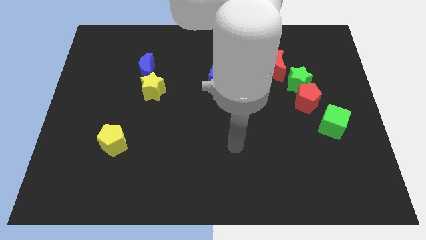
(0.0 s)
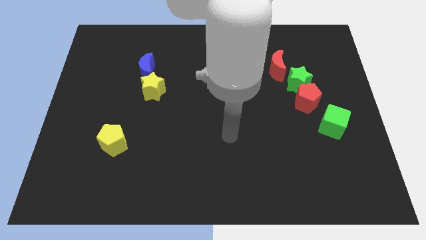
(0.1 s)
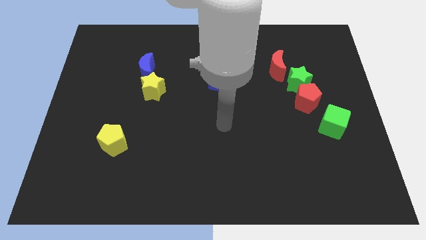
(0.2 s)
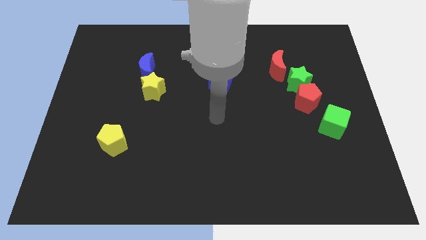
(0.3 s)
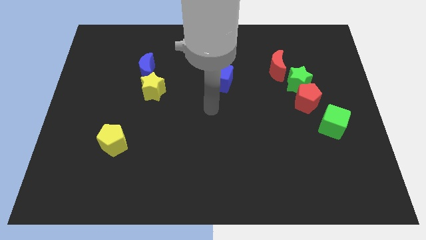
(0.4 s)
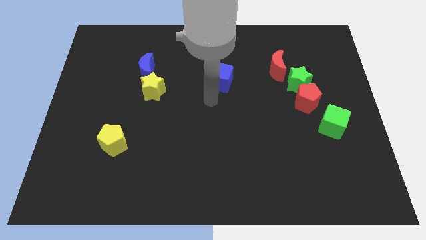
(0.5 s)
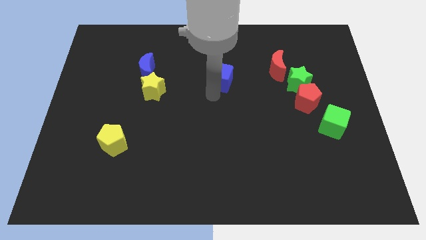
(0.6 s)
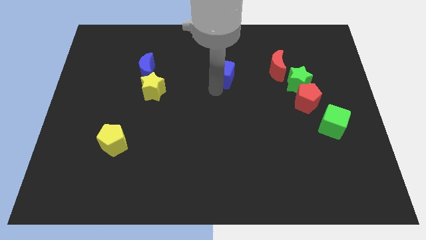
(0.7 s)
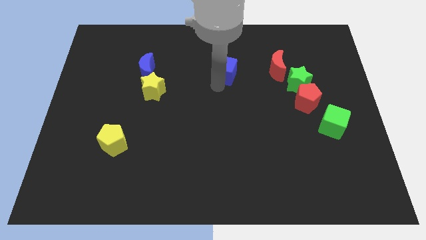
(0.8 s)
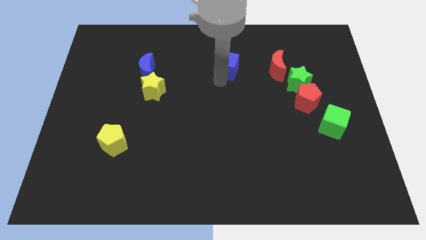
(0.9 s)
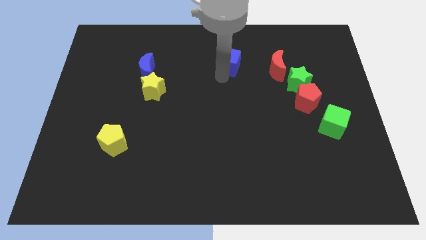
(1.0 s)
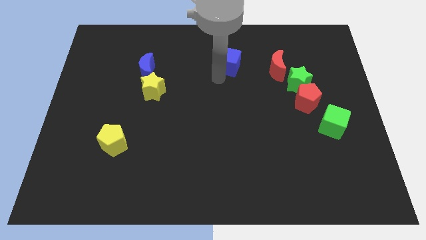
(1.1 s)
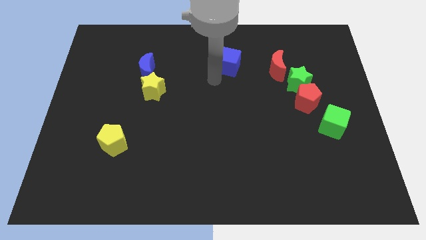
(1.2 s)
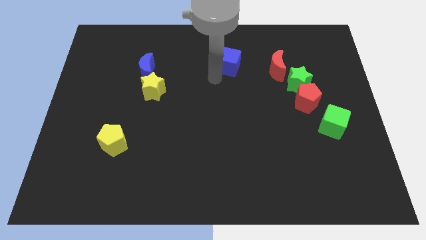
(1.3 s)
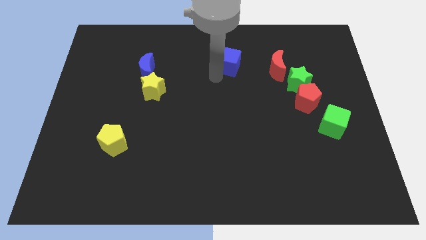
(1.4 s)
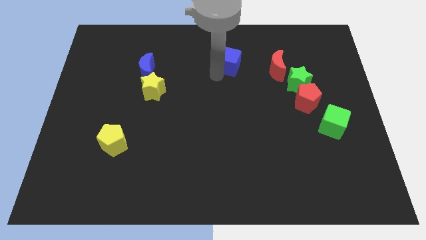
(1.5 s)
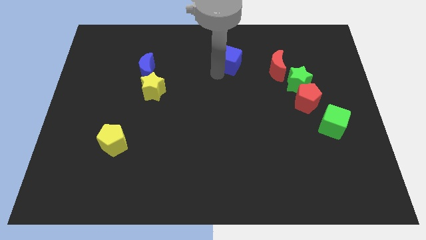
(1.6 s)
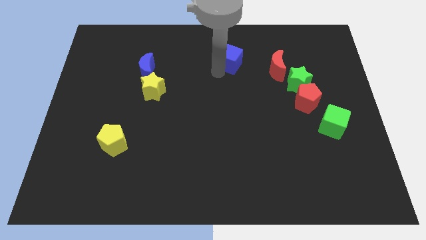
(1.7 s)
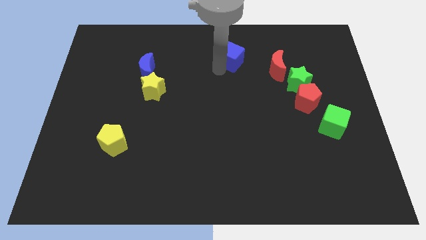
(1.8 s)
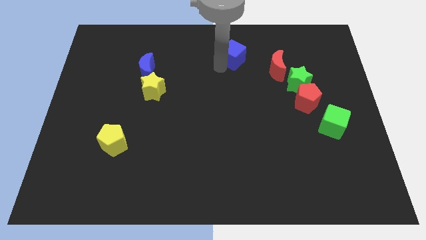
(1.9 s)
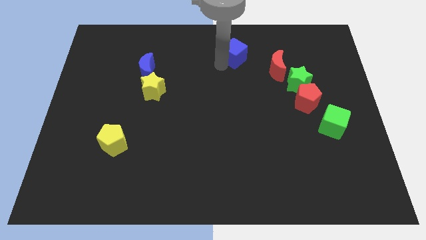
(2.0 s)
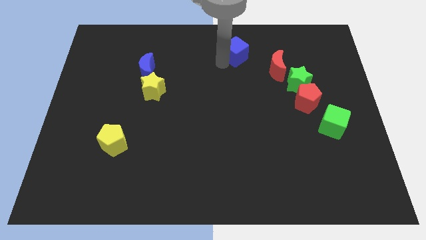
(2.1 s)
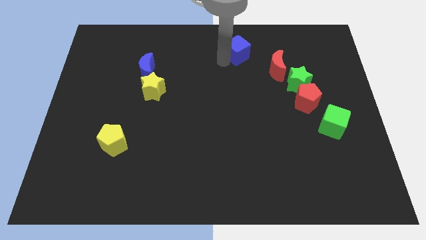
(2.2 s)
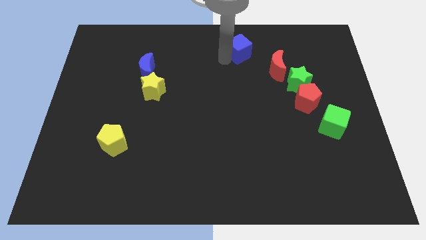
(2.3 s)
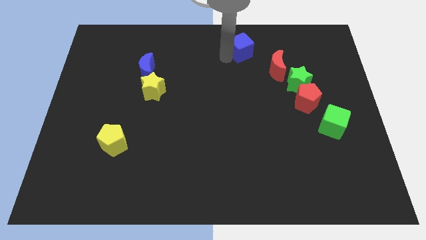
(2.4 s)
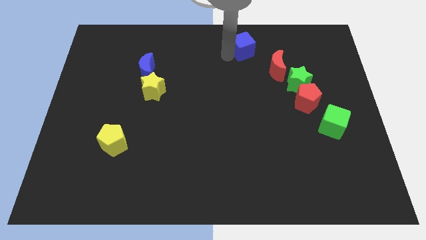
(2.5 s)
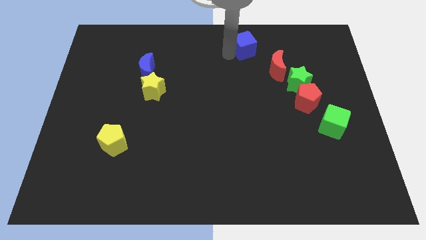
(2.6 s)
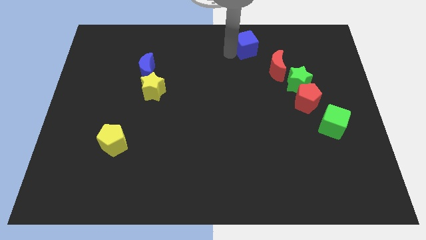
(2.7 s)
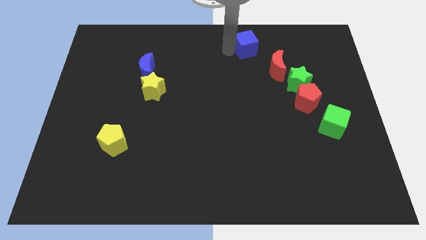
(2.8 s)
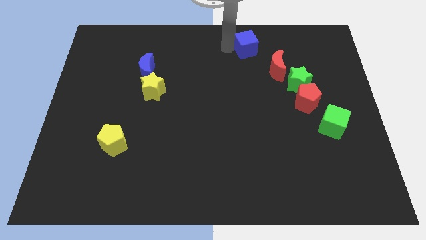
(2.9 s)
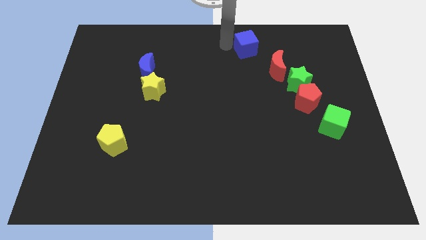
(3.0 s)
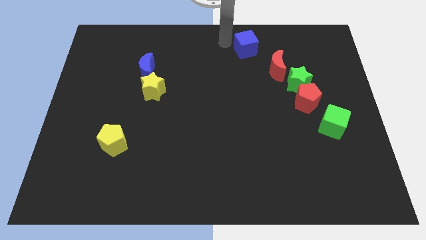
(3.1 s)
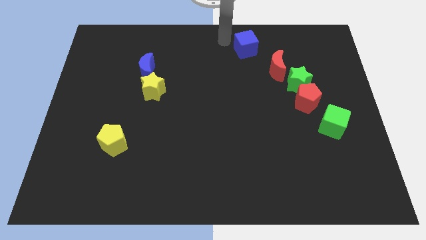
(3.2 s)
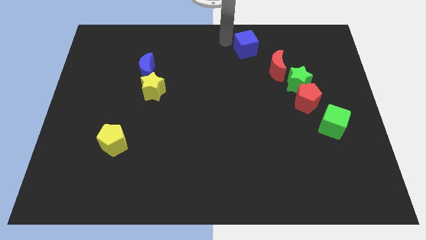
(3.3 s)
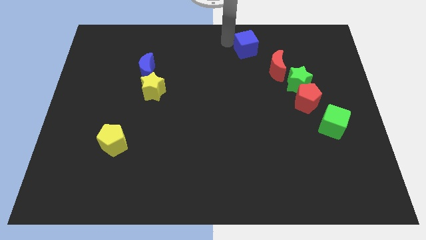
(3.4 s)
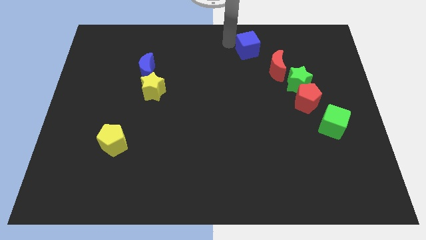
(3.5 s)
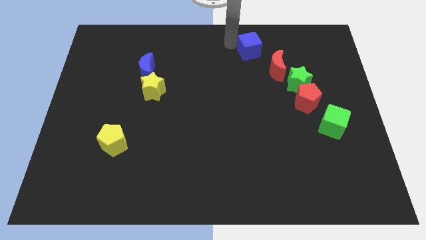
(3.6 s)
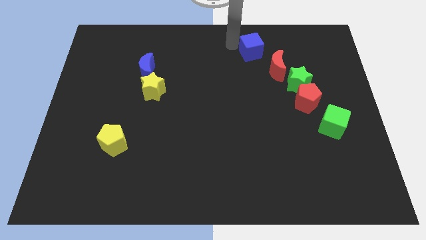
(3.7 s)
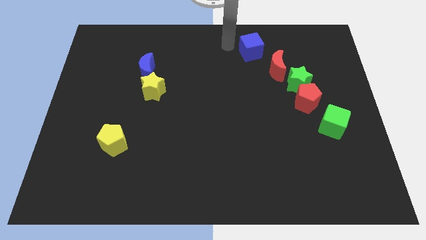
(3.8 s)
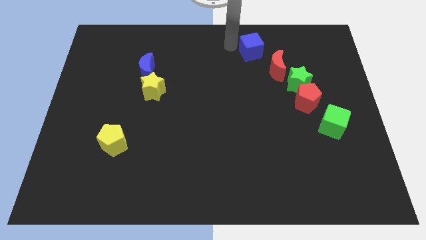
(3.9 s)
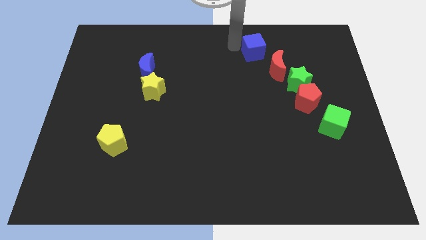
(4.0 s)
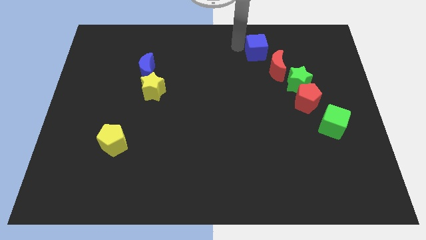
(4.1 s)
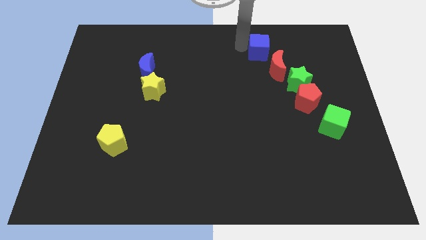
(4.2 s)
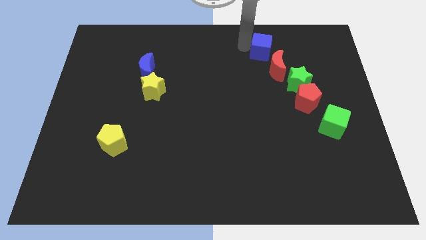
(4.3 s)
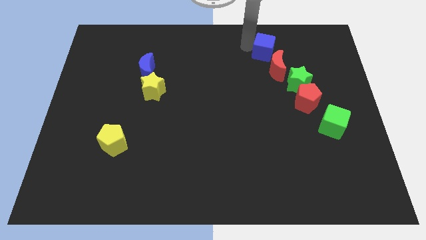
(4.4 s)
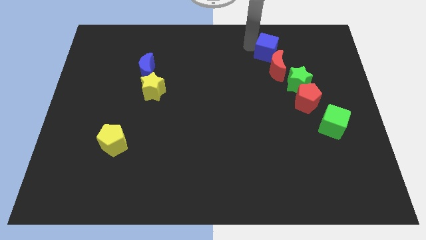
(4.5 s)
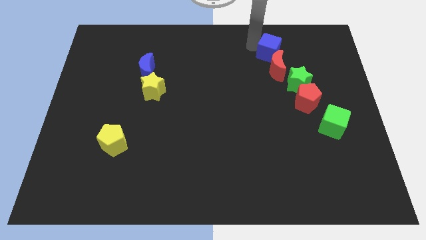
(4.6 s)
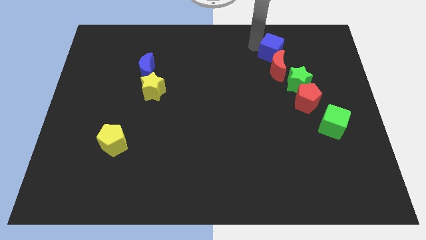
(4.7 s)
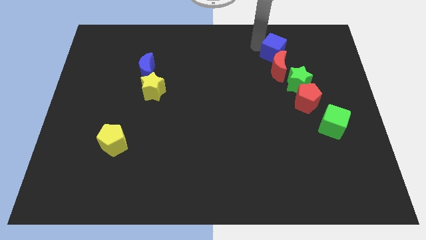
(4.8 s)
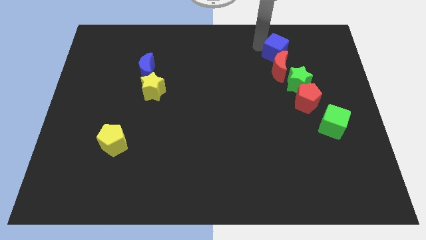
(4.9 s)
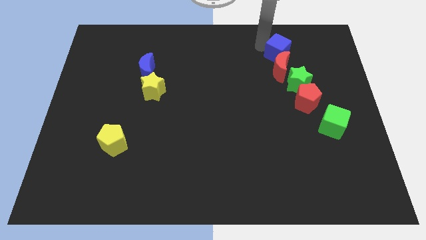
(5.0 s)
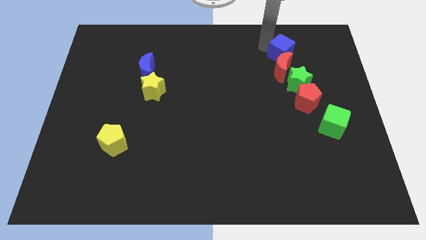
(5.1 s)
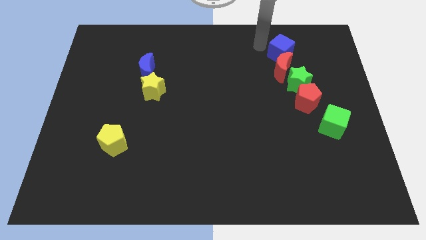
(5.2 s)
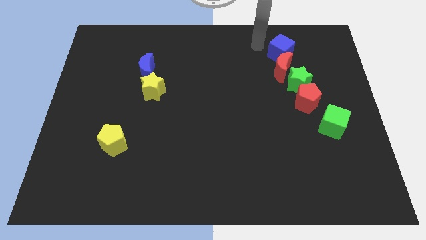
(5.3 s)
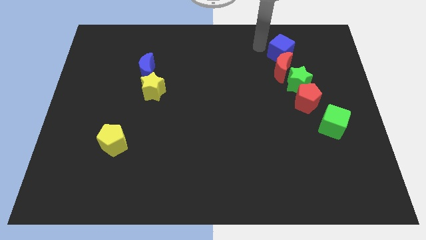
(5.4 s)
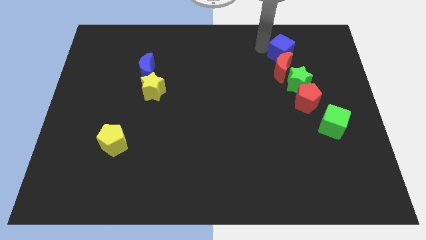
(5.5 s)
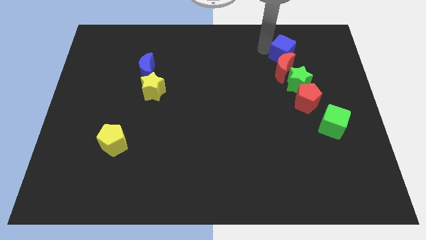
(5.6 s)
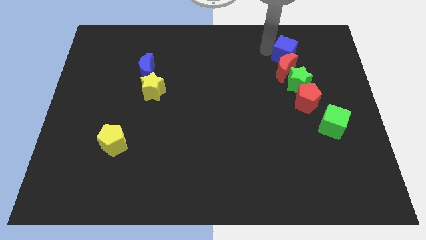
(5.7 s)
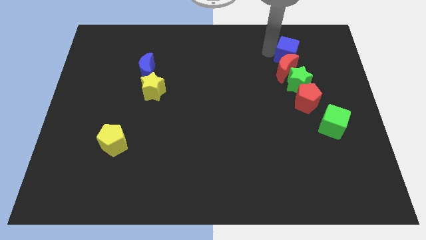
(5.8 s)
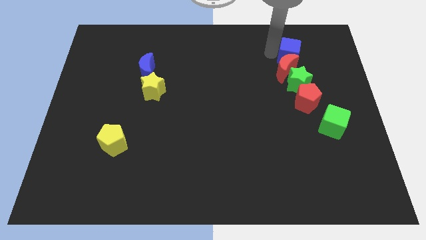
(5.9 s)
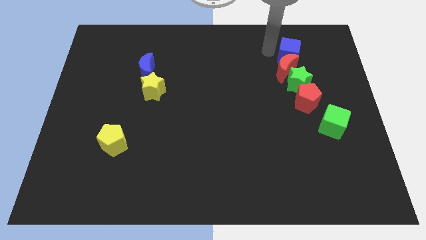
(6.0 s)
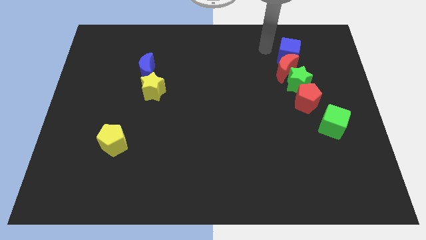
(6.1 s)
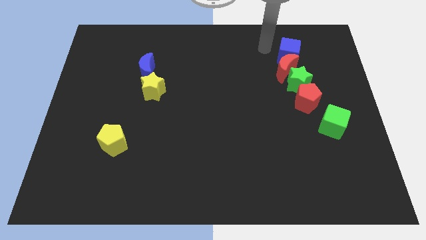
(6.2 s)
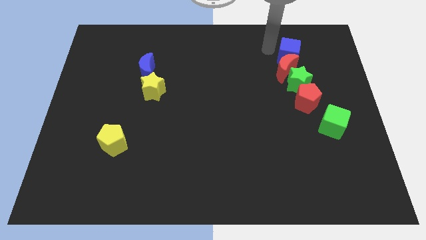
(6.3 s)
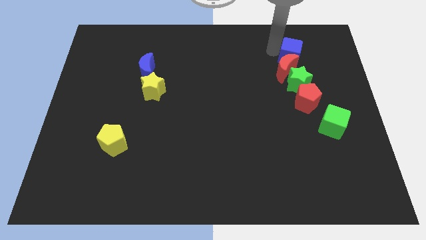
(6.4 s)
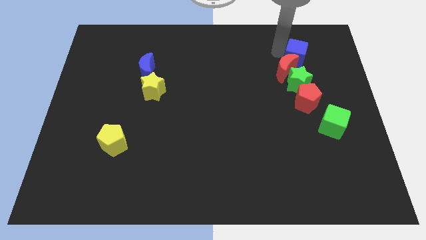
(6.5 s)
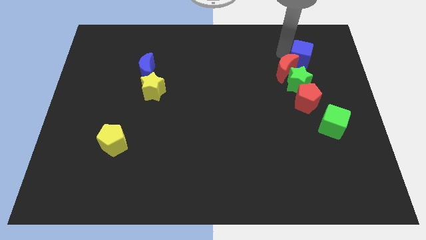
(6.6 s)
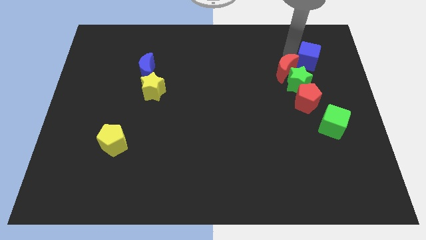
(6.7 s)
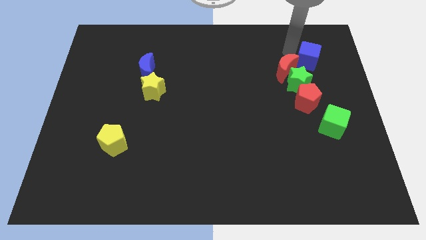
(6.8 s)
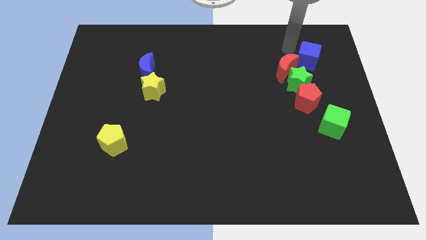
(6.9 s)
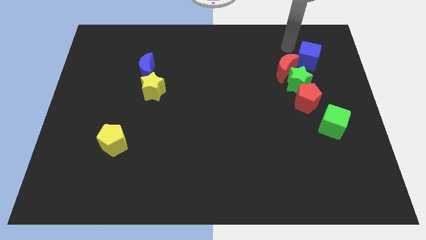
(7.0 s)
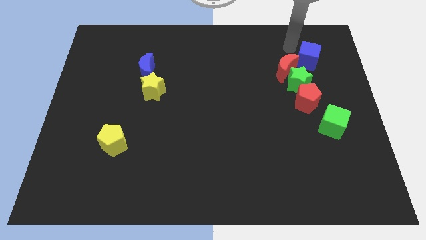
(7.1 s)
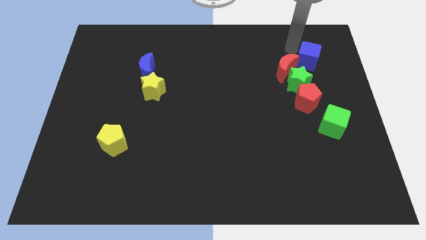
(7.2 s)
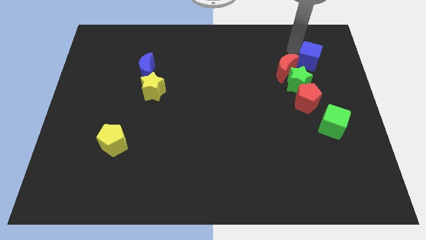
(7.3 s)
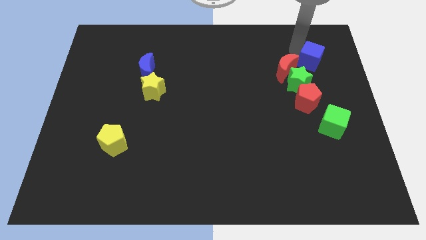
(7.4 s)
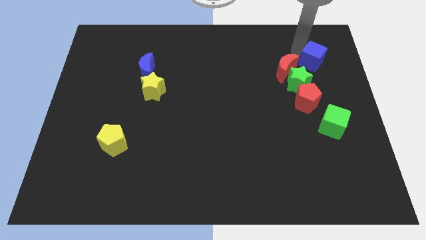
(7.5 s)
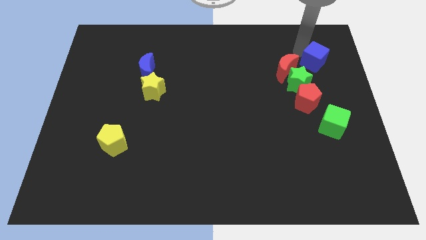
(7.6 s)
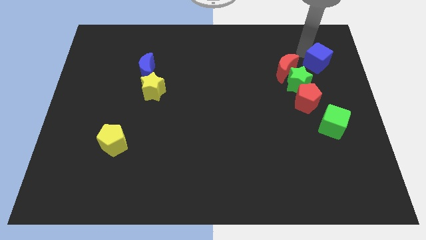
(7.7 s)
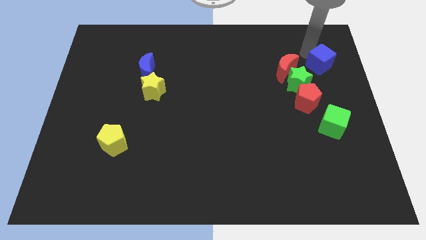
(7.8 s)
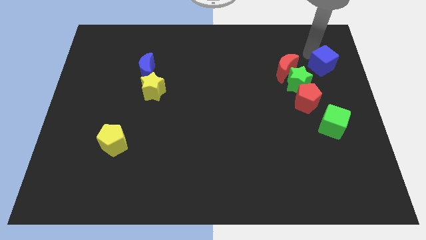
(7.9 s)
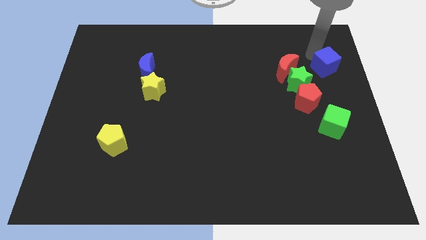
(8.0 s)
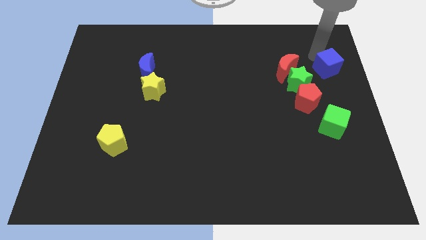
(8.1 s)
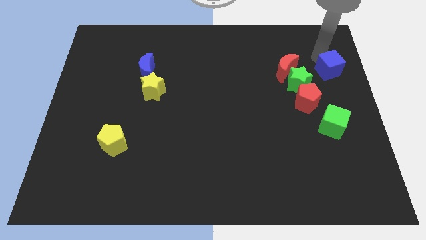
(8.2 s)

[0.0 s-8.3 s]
move the blue cube to the right side
